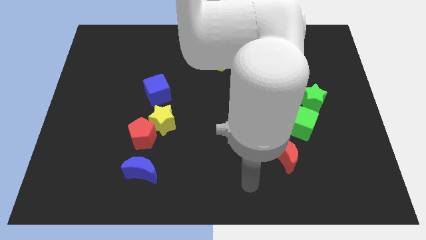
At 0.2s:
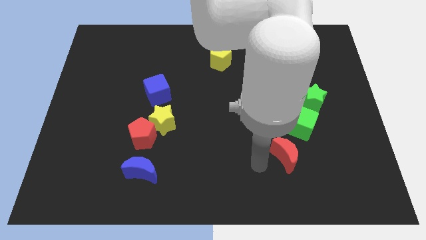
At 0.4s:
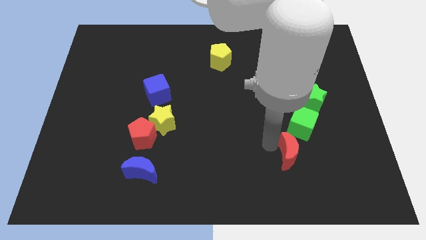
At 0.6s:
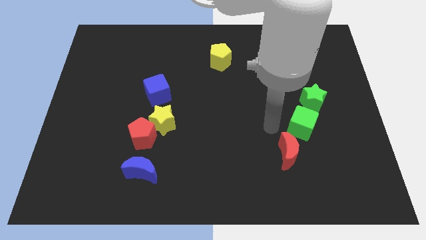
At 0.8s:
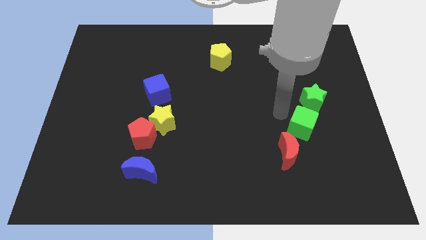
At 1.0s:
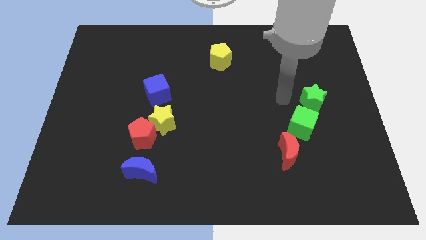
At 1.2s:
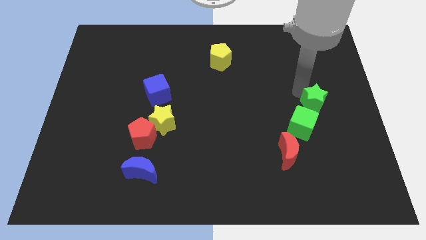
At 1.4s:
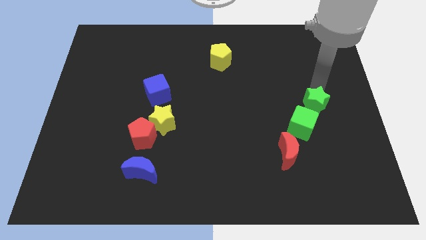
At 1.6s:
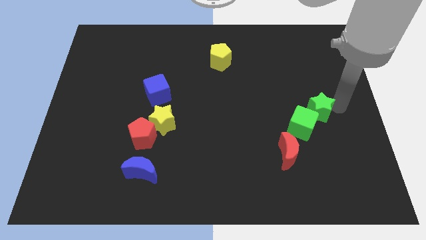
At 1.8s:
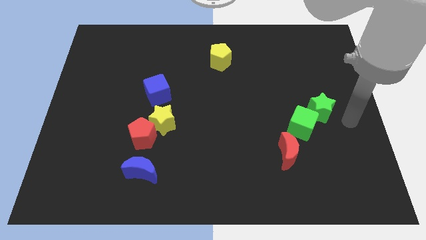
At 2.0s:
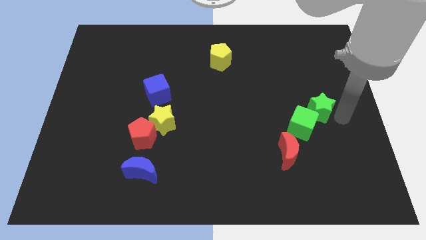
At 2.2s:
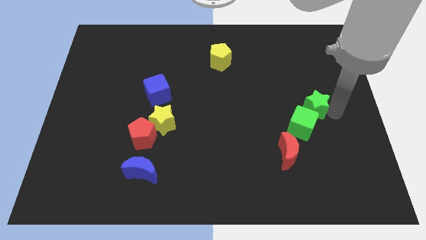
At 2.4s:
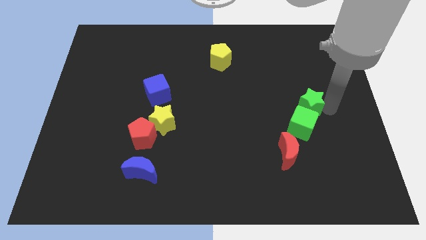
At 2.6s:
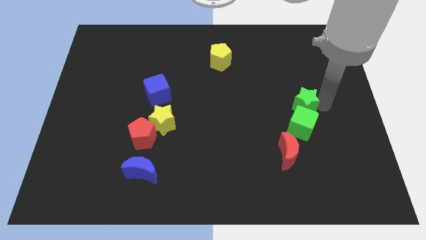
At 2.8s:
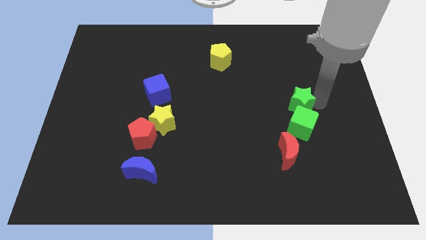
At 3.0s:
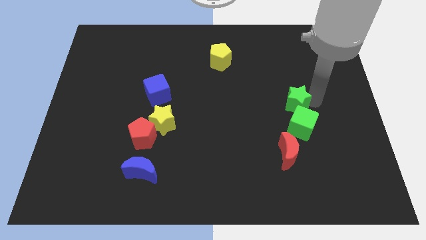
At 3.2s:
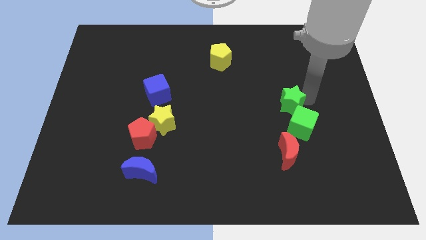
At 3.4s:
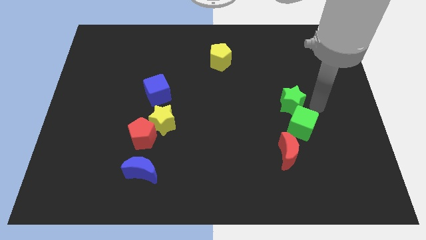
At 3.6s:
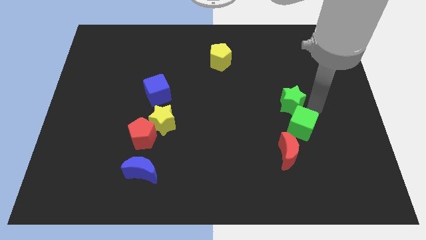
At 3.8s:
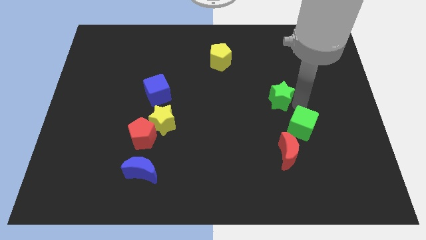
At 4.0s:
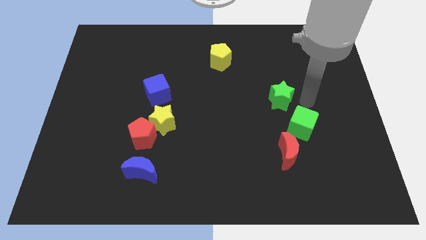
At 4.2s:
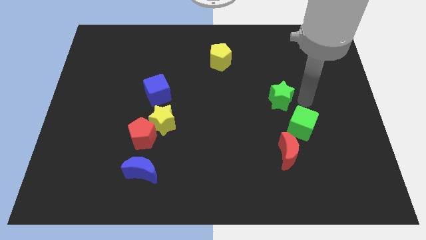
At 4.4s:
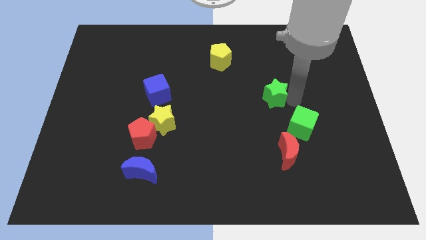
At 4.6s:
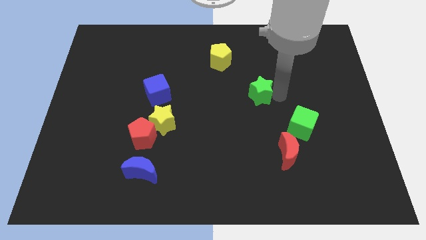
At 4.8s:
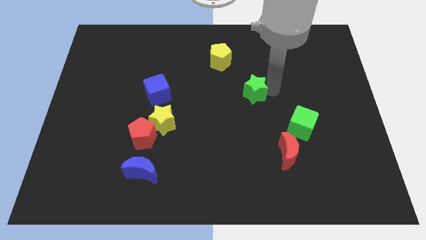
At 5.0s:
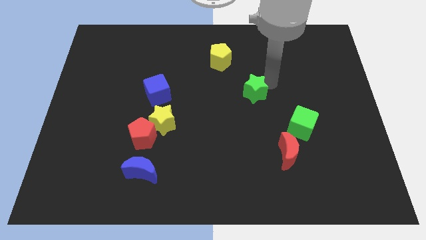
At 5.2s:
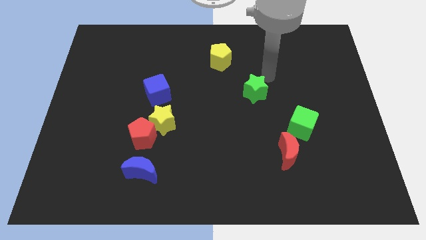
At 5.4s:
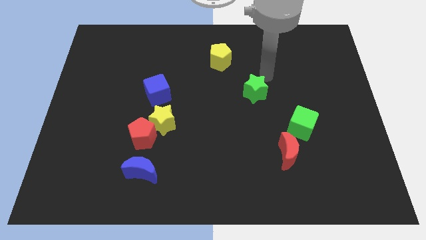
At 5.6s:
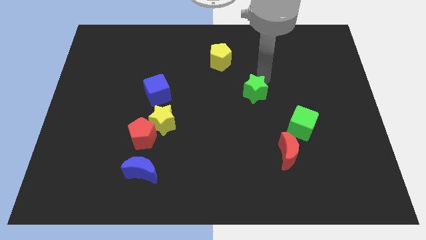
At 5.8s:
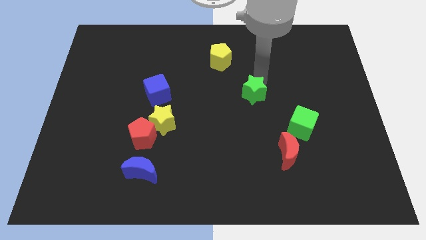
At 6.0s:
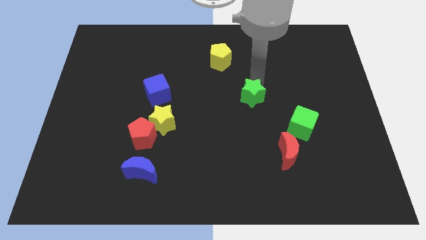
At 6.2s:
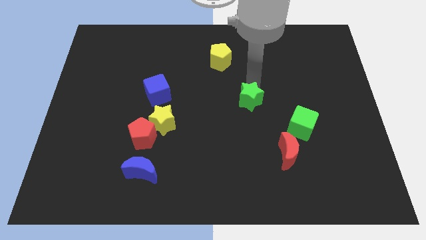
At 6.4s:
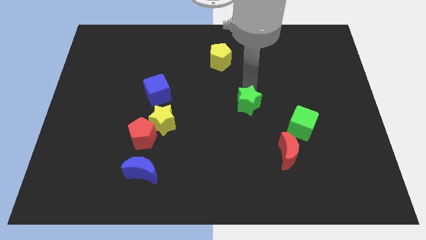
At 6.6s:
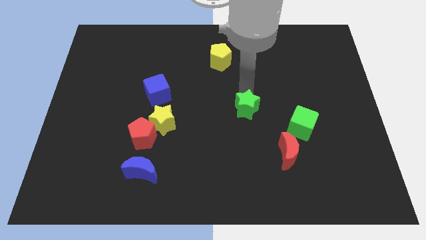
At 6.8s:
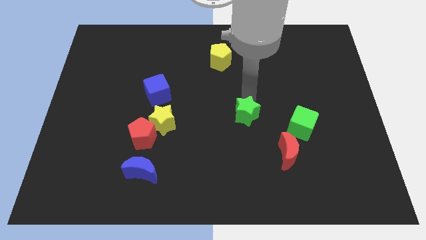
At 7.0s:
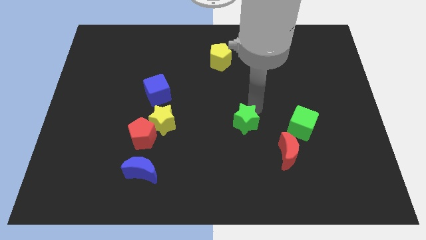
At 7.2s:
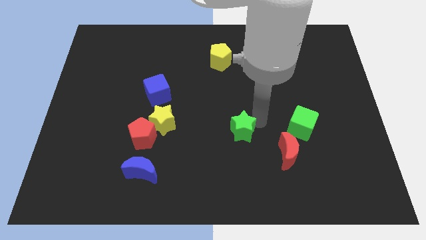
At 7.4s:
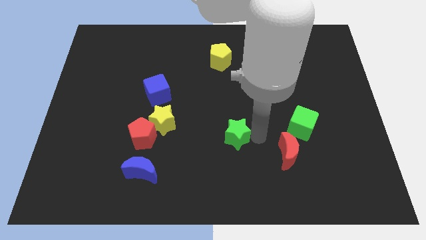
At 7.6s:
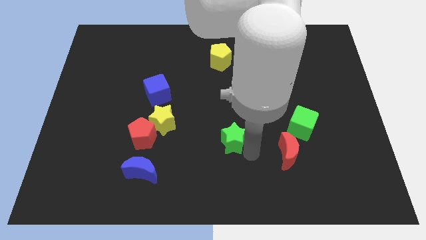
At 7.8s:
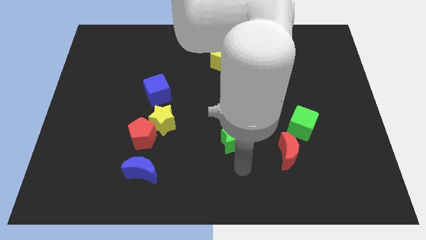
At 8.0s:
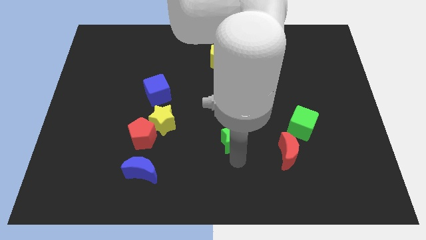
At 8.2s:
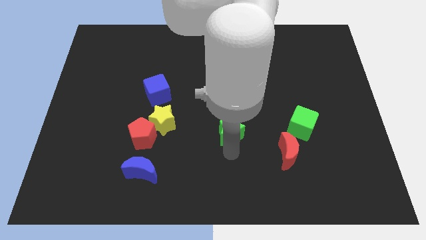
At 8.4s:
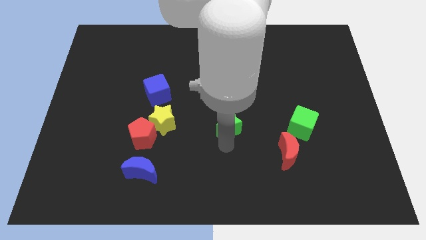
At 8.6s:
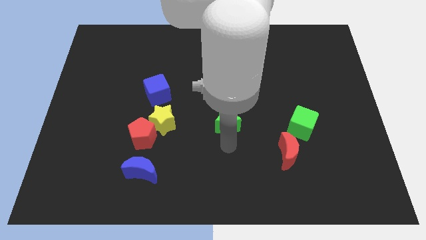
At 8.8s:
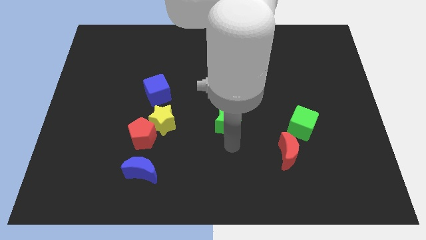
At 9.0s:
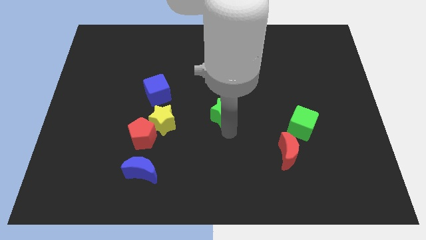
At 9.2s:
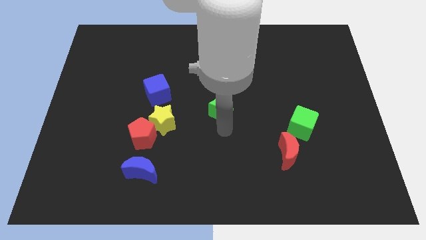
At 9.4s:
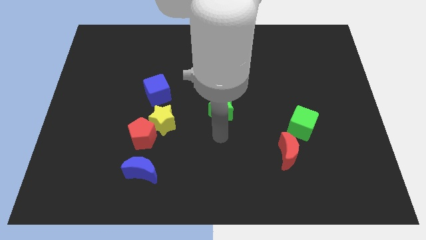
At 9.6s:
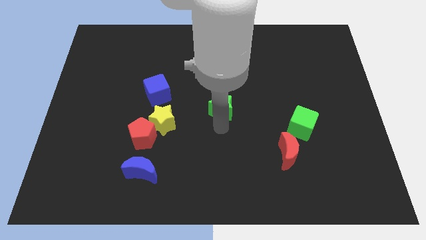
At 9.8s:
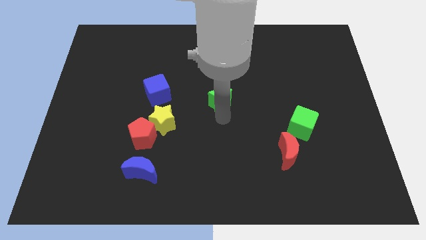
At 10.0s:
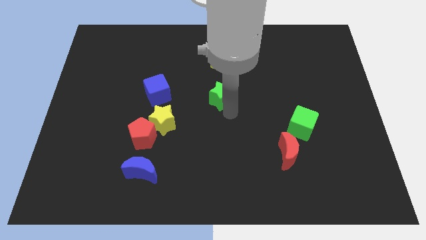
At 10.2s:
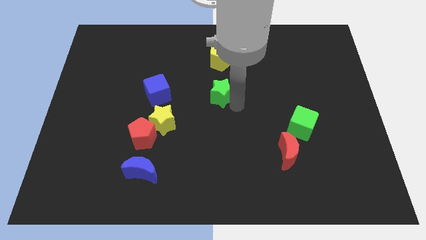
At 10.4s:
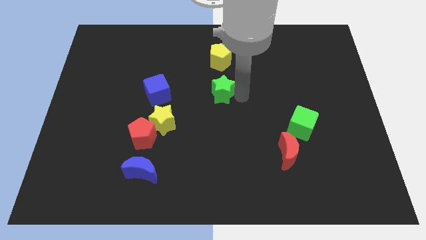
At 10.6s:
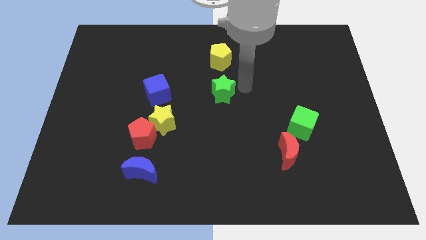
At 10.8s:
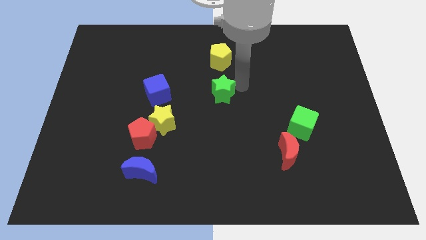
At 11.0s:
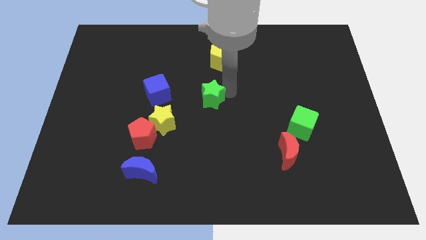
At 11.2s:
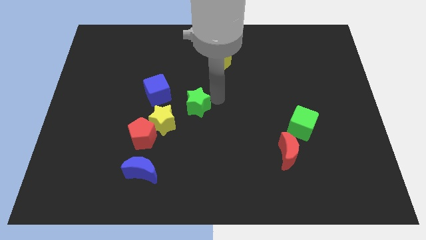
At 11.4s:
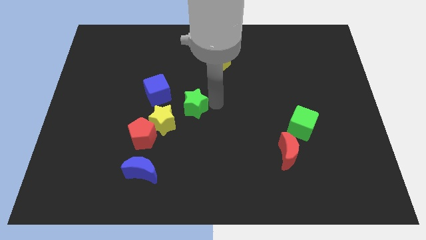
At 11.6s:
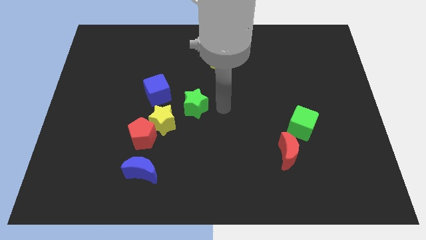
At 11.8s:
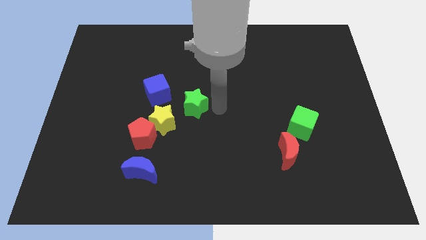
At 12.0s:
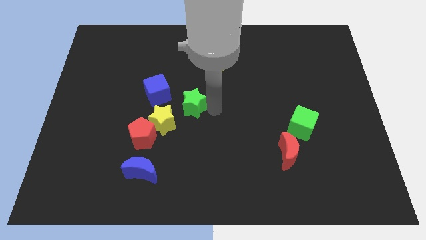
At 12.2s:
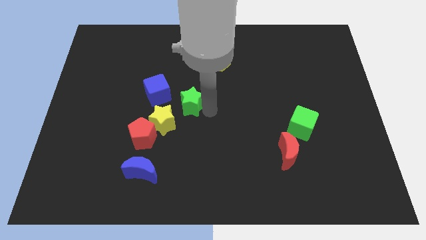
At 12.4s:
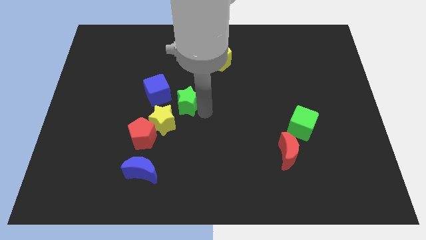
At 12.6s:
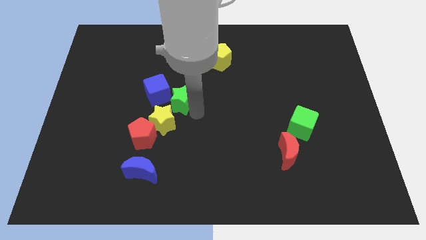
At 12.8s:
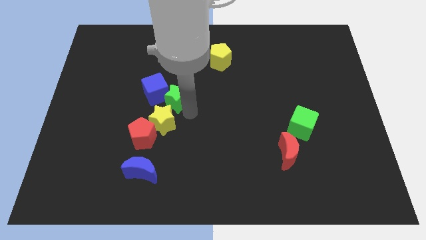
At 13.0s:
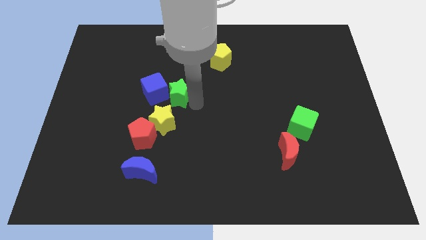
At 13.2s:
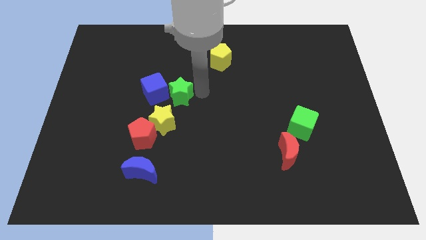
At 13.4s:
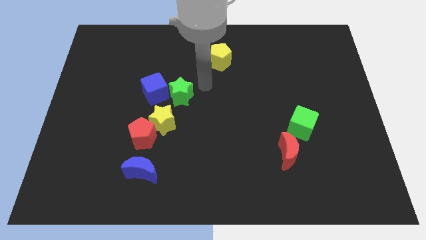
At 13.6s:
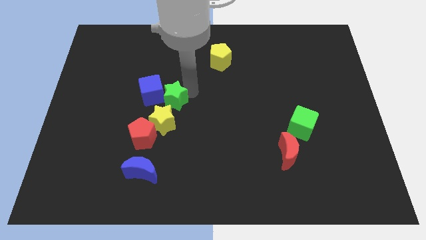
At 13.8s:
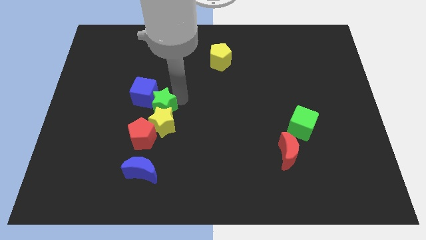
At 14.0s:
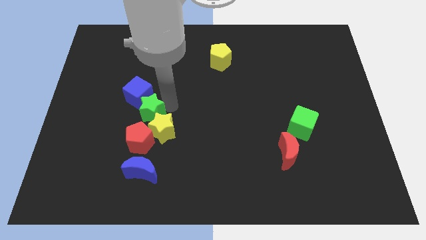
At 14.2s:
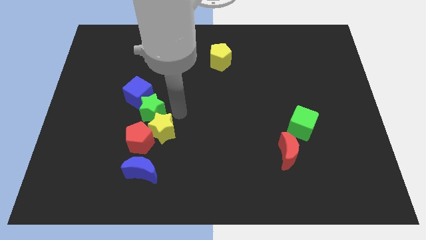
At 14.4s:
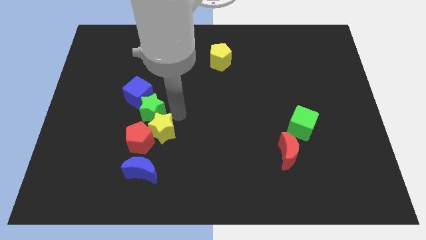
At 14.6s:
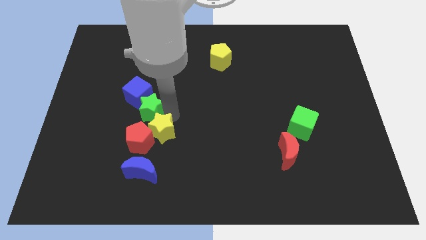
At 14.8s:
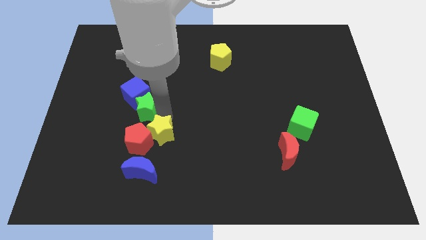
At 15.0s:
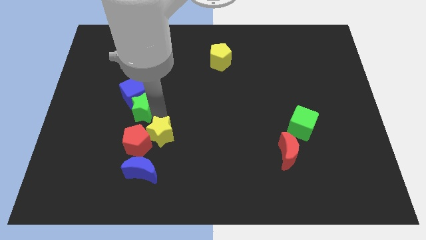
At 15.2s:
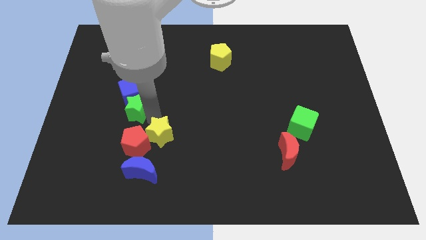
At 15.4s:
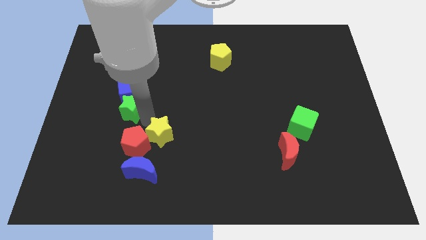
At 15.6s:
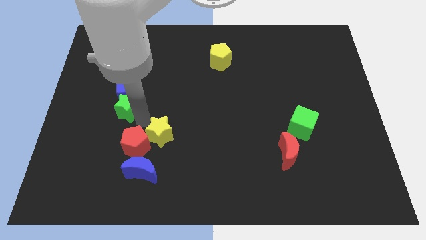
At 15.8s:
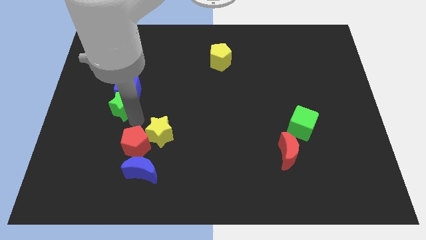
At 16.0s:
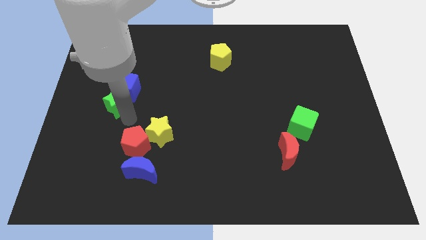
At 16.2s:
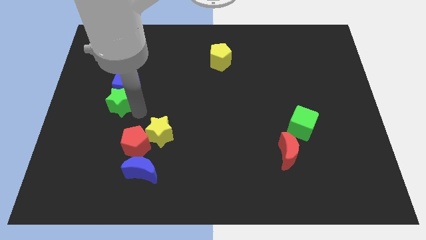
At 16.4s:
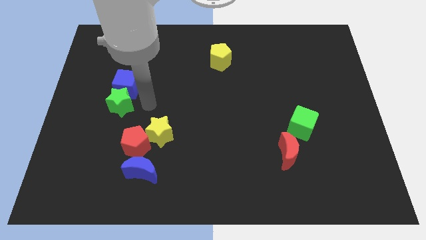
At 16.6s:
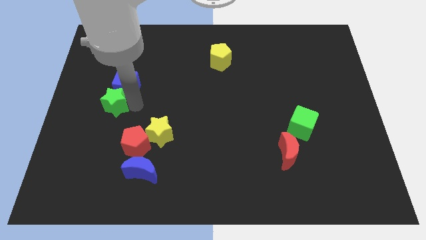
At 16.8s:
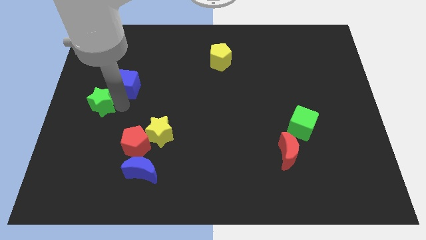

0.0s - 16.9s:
move the green star to the left side of the board
